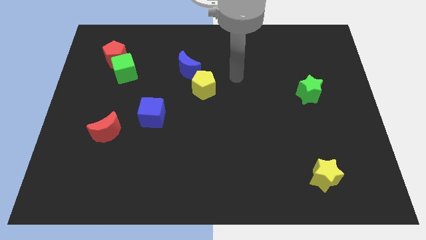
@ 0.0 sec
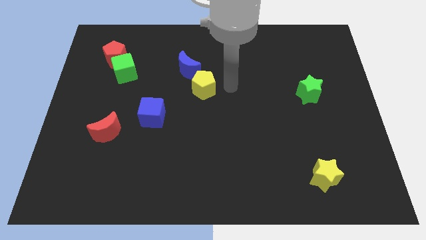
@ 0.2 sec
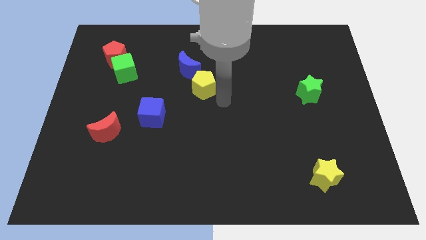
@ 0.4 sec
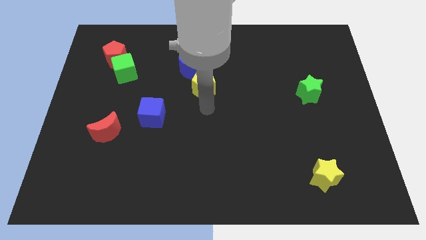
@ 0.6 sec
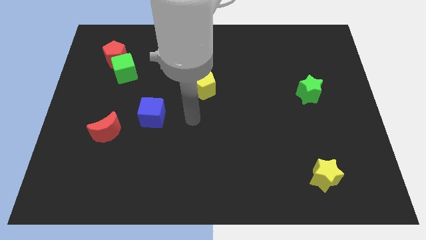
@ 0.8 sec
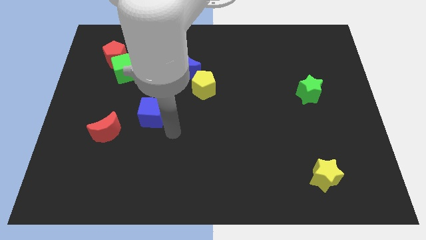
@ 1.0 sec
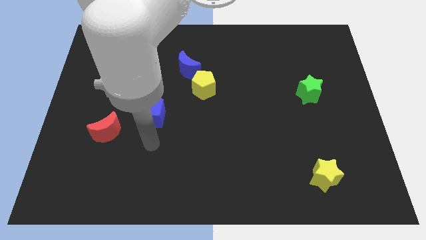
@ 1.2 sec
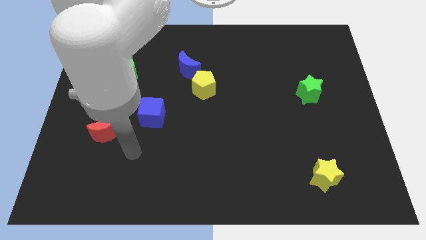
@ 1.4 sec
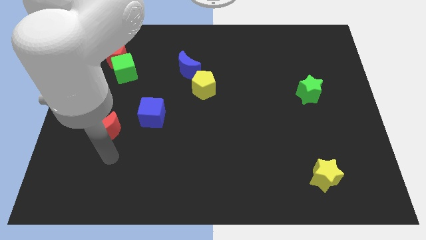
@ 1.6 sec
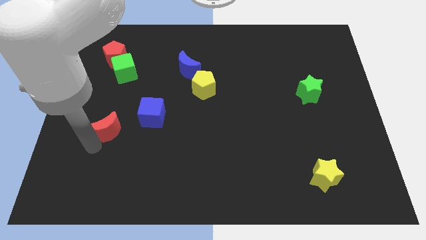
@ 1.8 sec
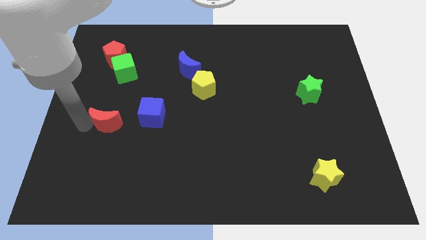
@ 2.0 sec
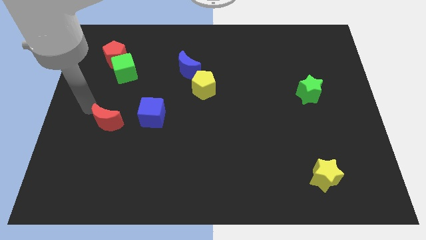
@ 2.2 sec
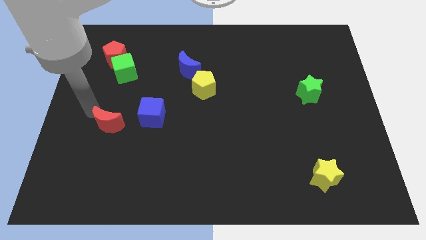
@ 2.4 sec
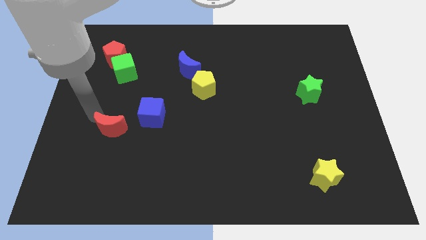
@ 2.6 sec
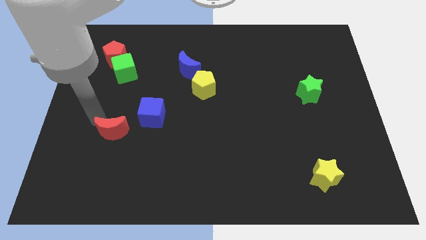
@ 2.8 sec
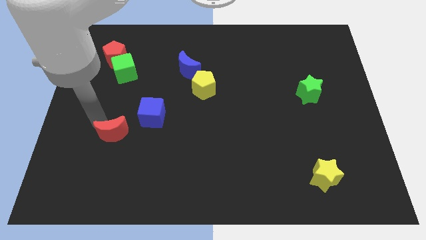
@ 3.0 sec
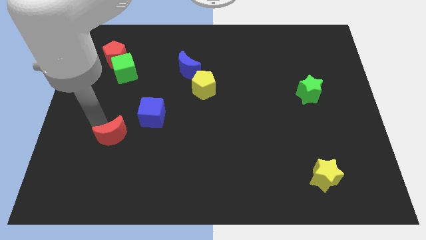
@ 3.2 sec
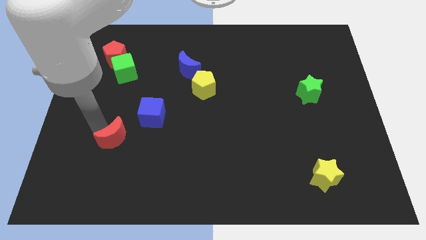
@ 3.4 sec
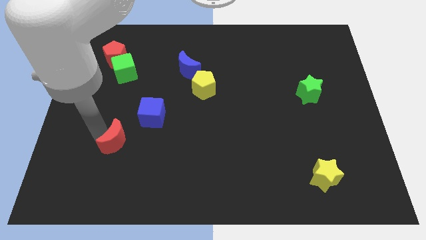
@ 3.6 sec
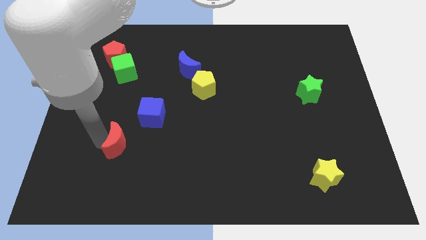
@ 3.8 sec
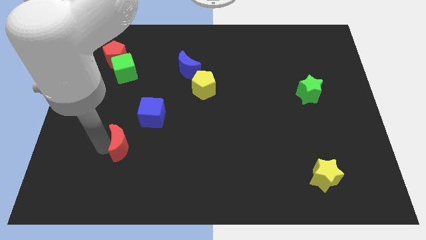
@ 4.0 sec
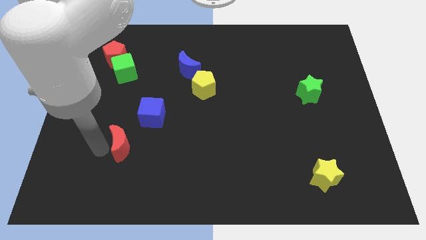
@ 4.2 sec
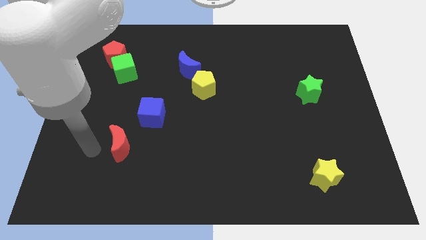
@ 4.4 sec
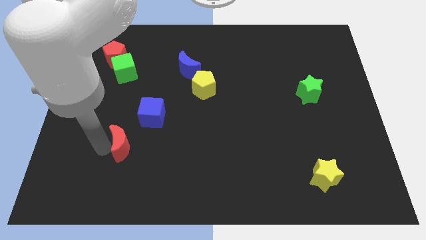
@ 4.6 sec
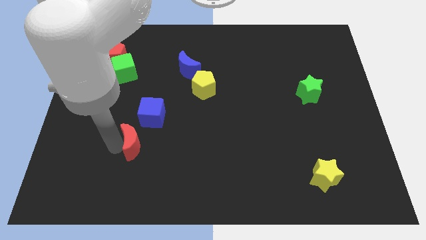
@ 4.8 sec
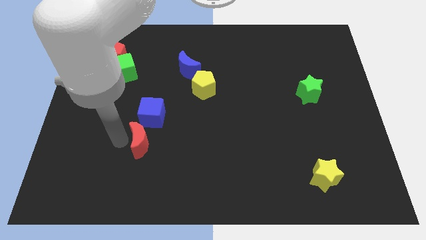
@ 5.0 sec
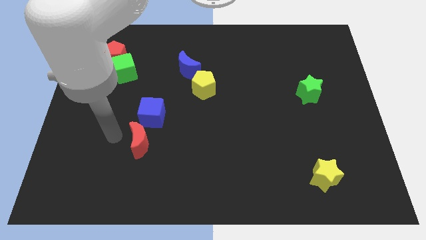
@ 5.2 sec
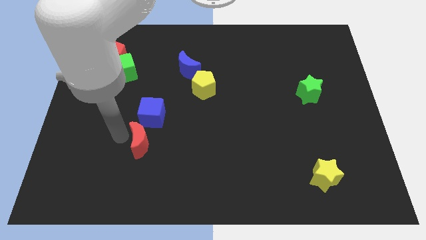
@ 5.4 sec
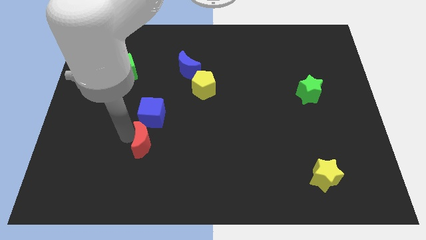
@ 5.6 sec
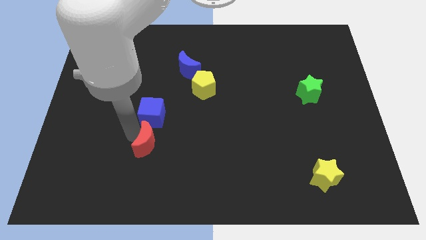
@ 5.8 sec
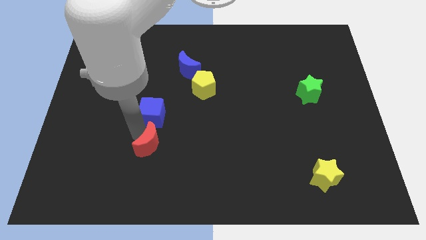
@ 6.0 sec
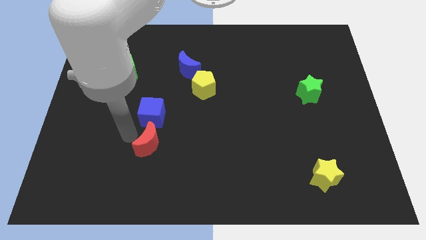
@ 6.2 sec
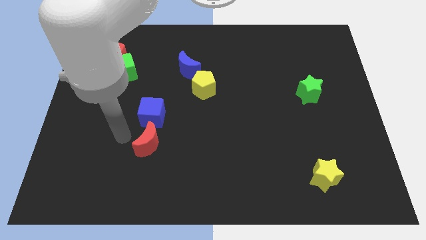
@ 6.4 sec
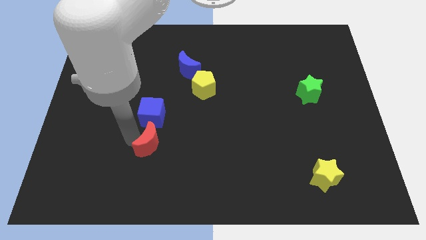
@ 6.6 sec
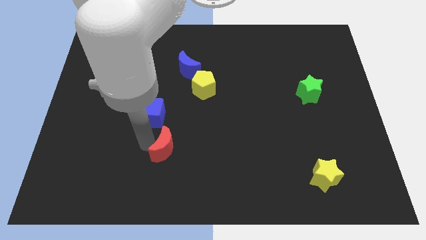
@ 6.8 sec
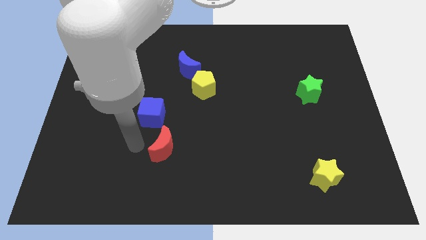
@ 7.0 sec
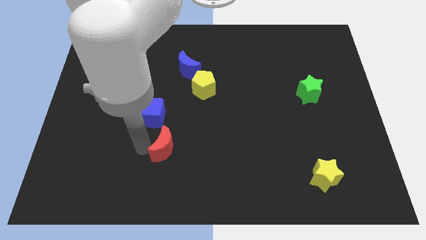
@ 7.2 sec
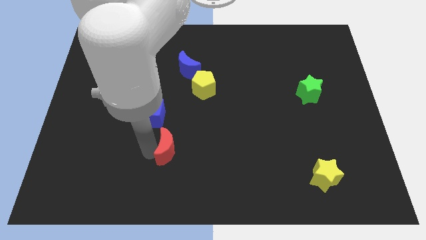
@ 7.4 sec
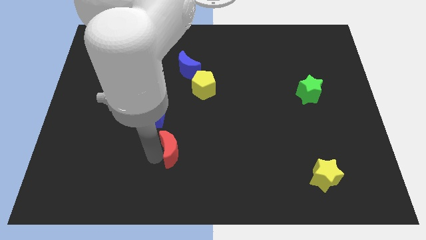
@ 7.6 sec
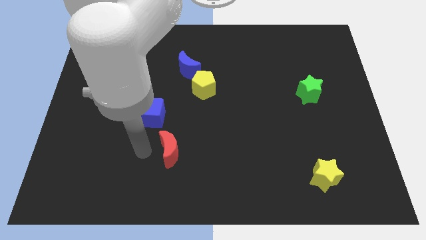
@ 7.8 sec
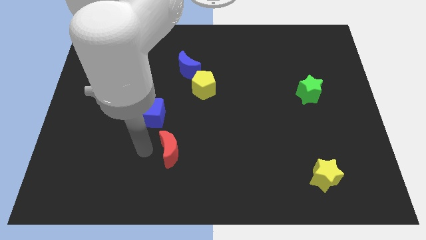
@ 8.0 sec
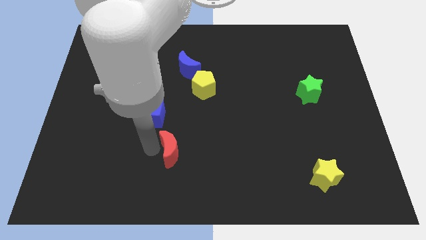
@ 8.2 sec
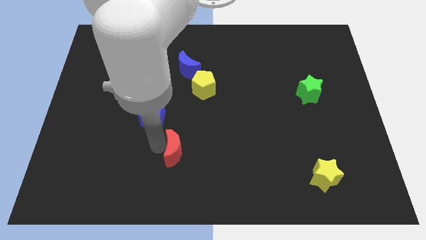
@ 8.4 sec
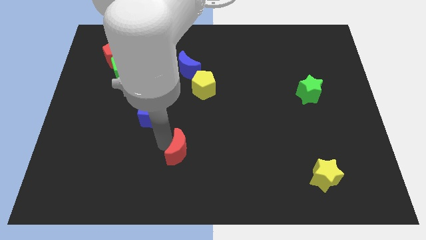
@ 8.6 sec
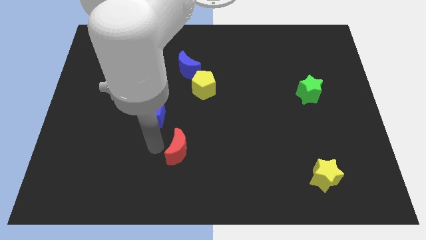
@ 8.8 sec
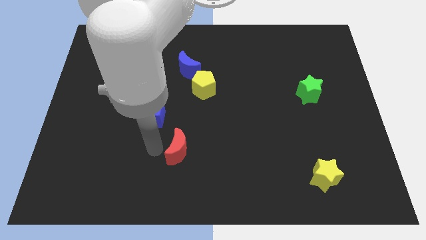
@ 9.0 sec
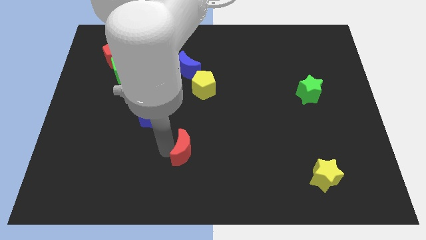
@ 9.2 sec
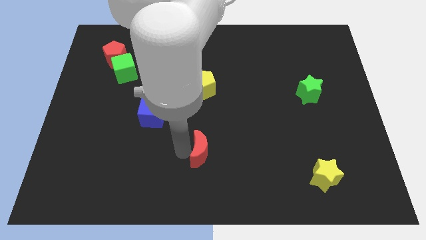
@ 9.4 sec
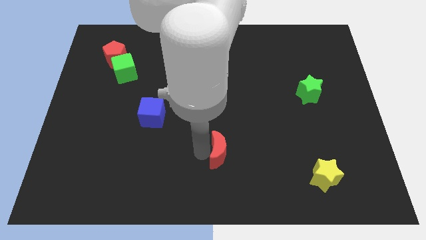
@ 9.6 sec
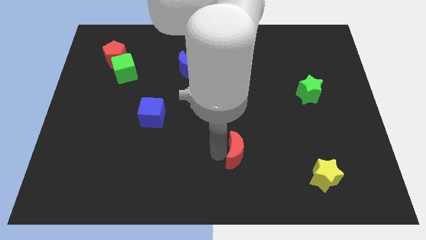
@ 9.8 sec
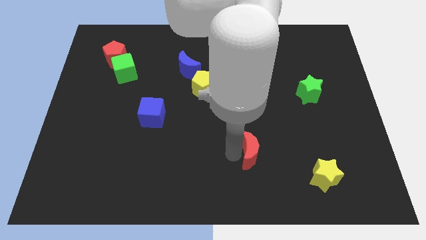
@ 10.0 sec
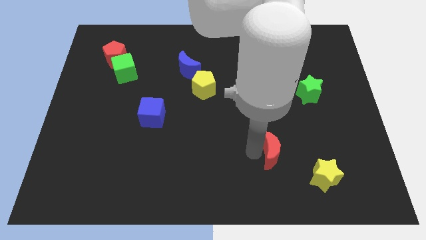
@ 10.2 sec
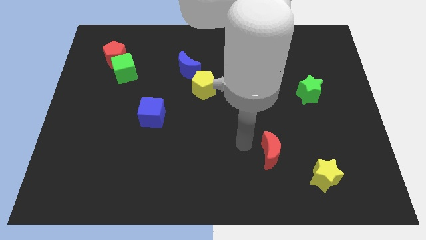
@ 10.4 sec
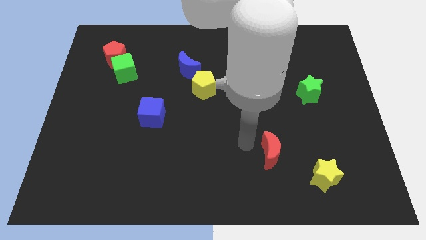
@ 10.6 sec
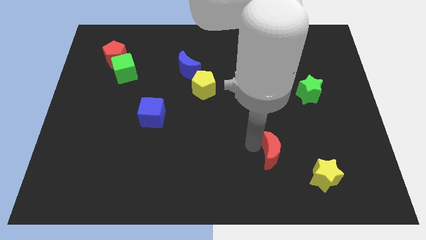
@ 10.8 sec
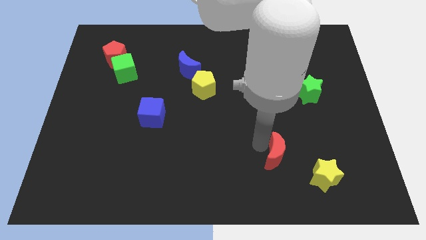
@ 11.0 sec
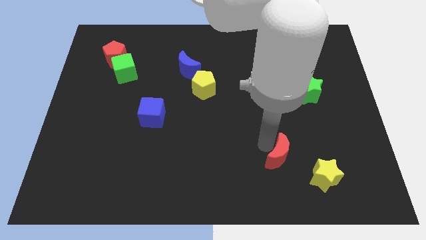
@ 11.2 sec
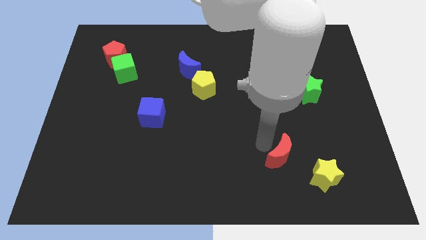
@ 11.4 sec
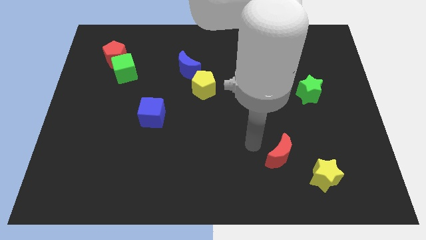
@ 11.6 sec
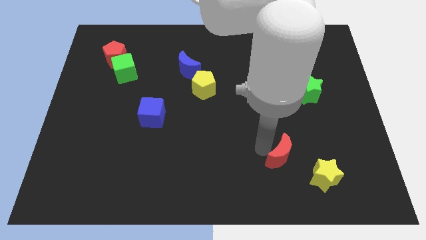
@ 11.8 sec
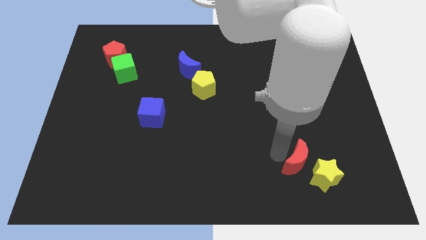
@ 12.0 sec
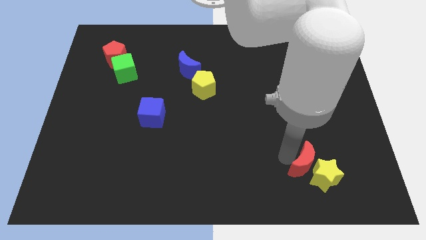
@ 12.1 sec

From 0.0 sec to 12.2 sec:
push the red moon next to the yellow star

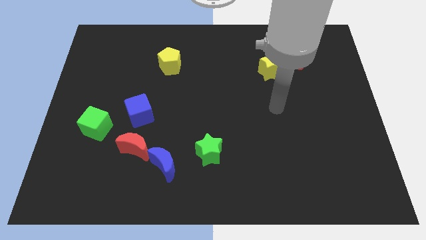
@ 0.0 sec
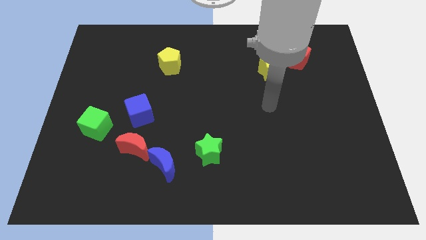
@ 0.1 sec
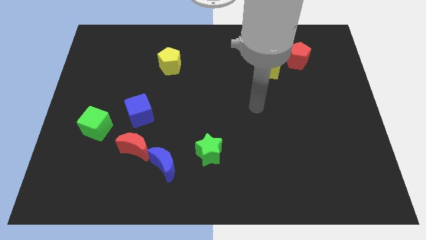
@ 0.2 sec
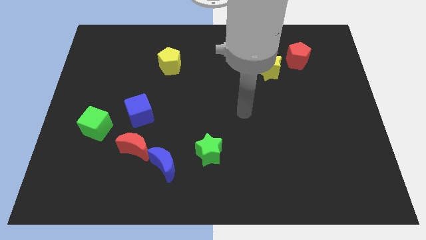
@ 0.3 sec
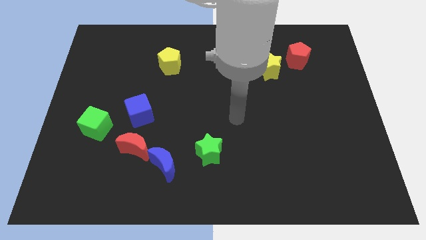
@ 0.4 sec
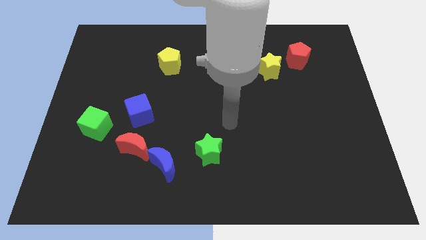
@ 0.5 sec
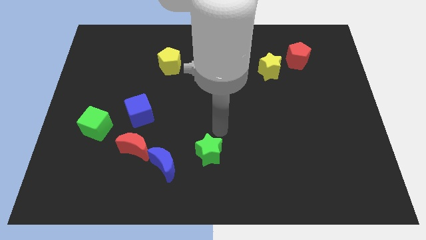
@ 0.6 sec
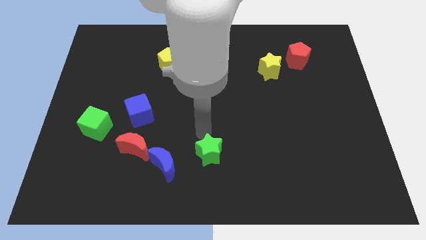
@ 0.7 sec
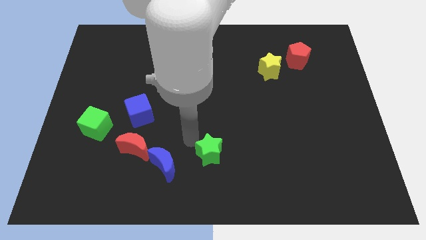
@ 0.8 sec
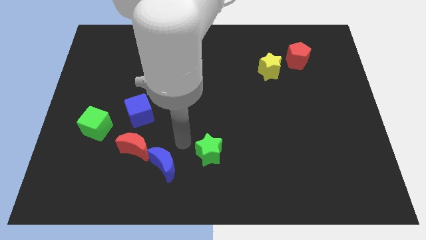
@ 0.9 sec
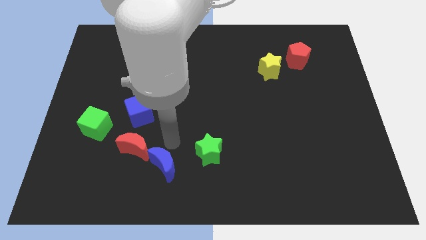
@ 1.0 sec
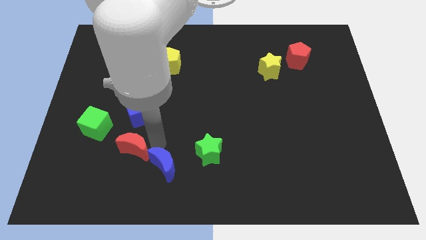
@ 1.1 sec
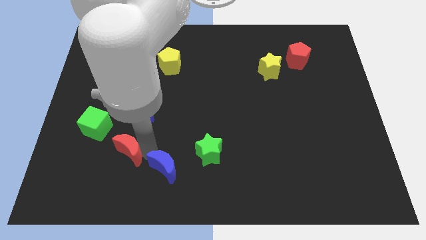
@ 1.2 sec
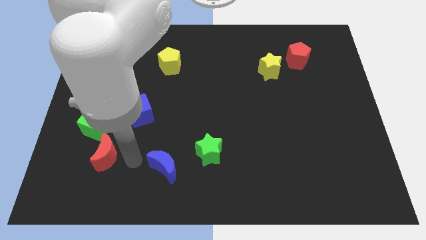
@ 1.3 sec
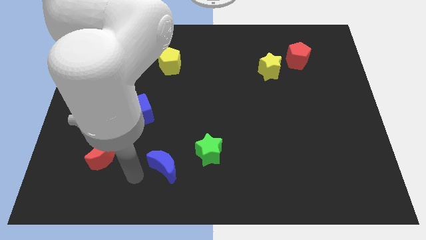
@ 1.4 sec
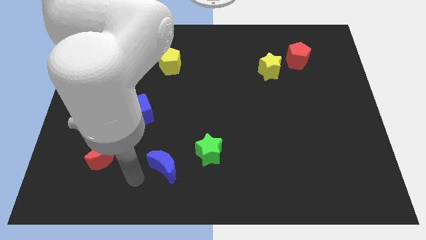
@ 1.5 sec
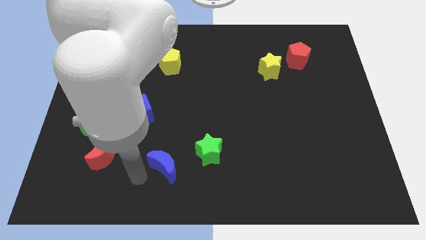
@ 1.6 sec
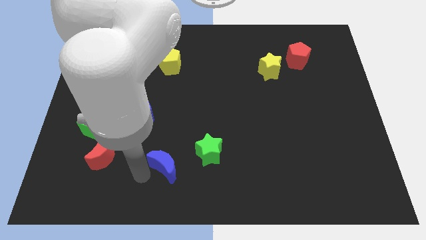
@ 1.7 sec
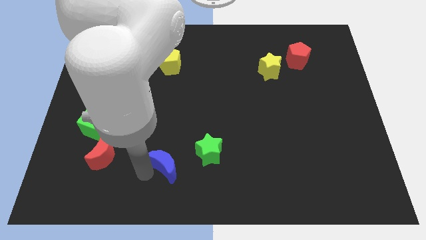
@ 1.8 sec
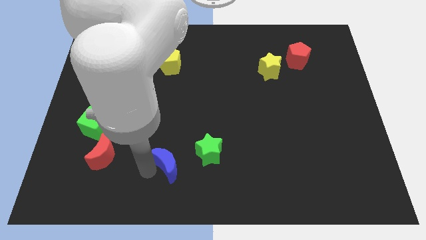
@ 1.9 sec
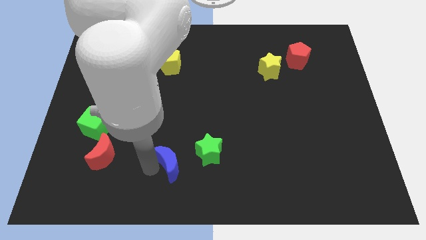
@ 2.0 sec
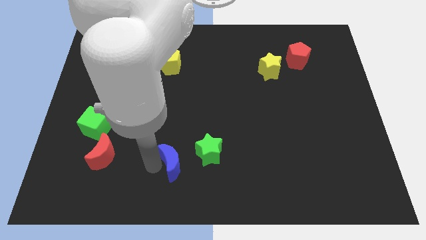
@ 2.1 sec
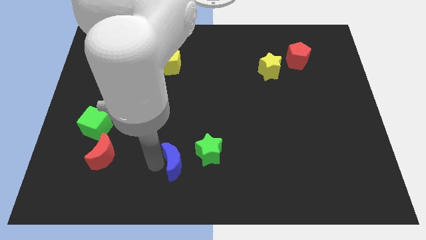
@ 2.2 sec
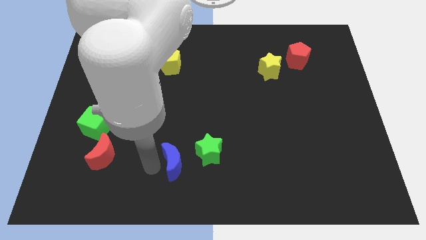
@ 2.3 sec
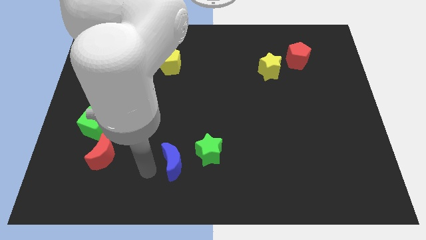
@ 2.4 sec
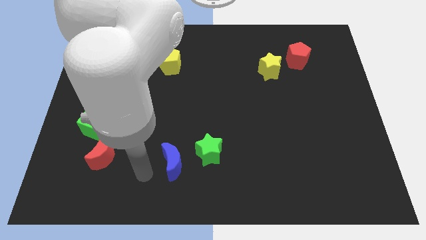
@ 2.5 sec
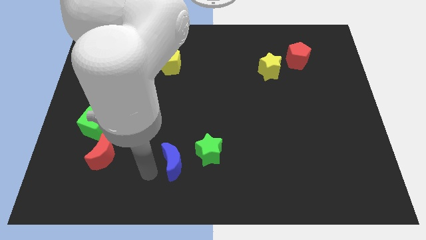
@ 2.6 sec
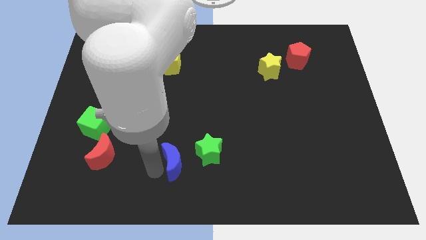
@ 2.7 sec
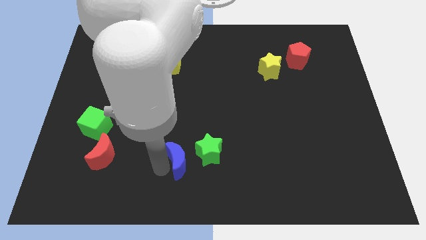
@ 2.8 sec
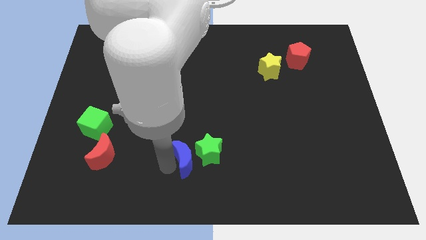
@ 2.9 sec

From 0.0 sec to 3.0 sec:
push the blue moon to the green star
